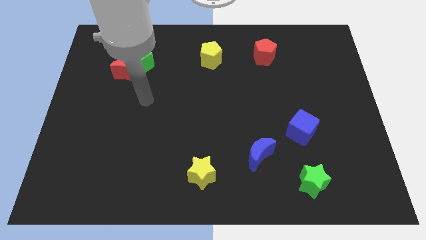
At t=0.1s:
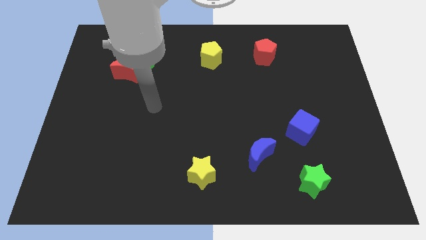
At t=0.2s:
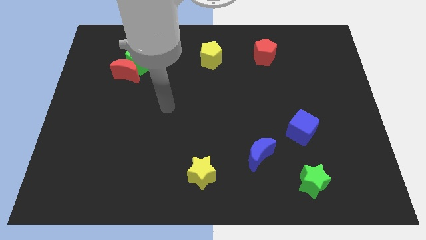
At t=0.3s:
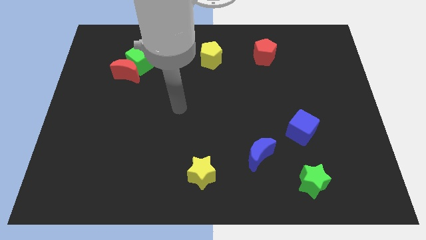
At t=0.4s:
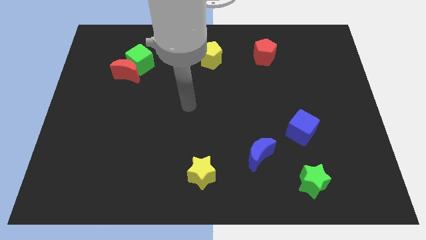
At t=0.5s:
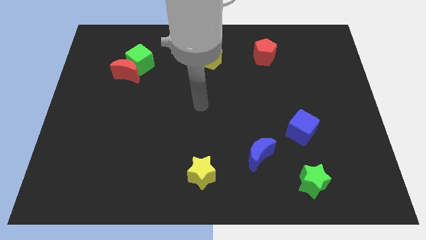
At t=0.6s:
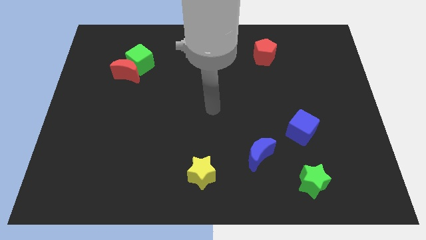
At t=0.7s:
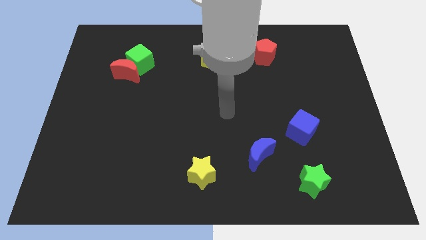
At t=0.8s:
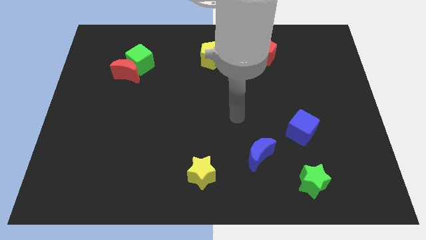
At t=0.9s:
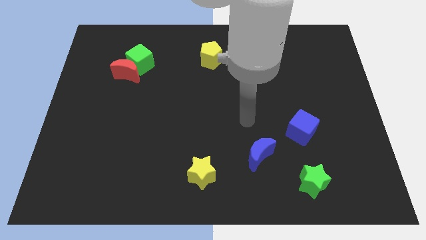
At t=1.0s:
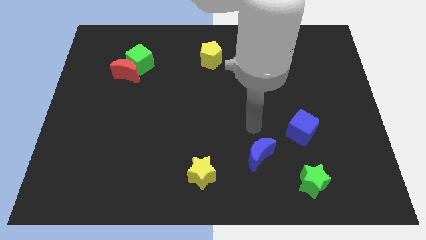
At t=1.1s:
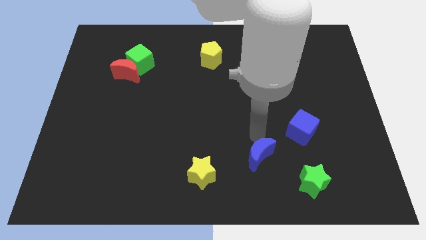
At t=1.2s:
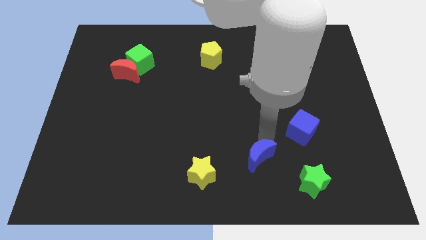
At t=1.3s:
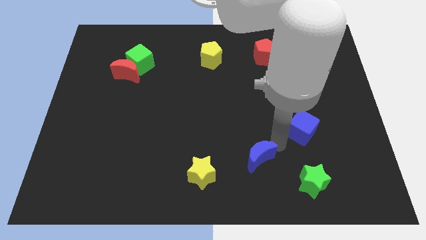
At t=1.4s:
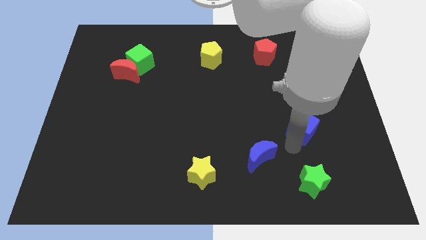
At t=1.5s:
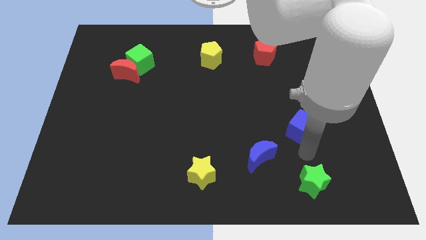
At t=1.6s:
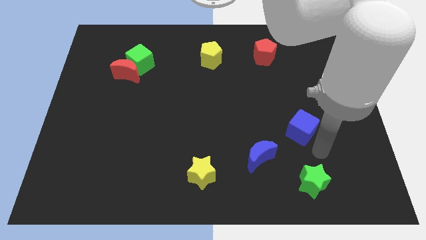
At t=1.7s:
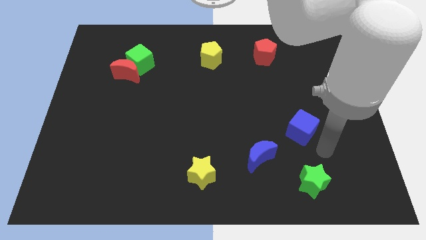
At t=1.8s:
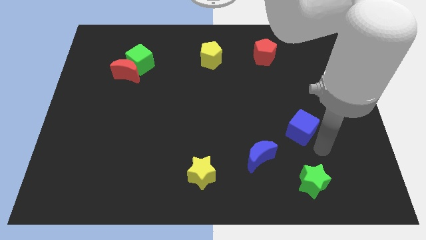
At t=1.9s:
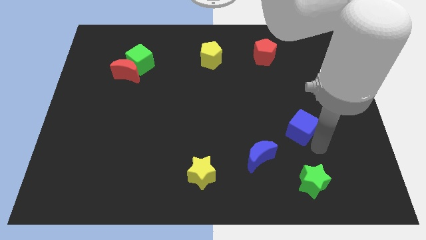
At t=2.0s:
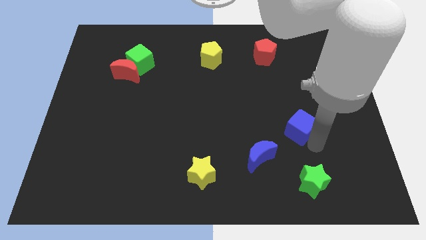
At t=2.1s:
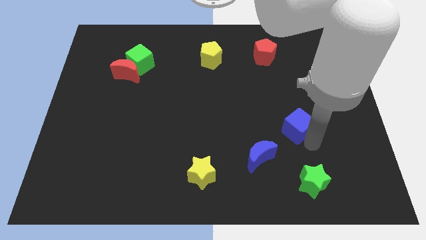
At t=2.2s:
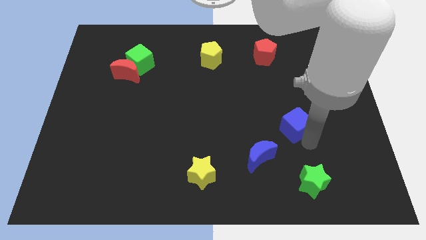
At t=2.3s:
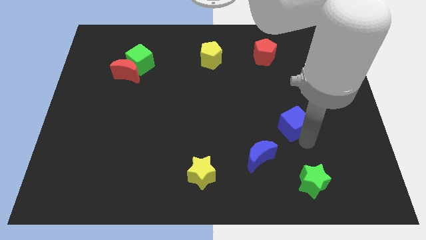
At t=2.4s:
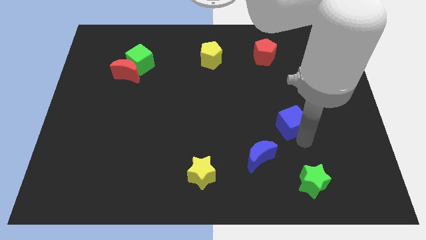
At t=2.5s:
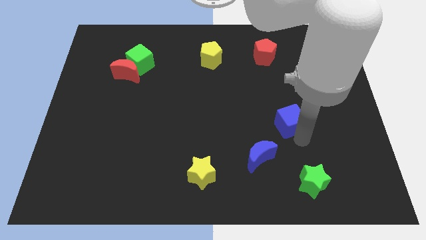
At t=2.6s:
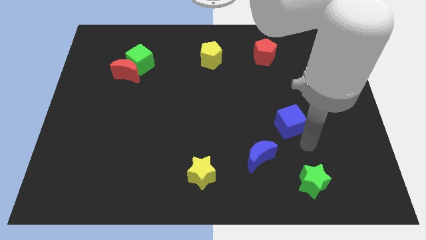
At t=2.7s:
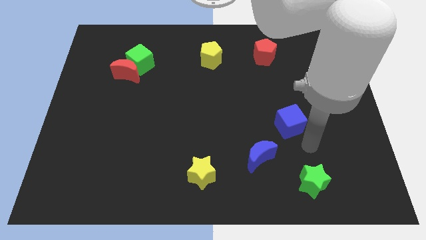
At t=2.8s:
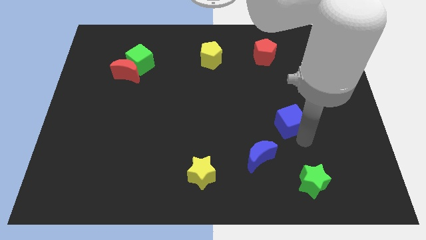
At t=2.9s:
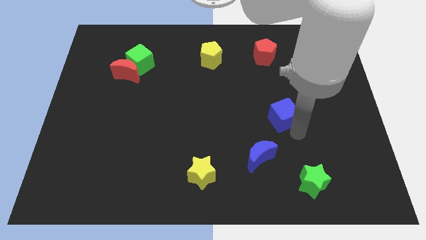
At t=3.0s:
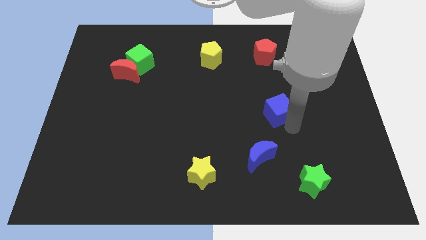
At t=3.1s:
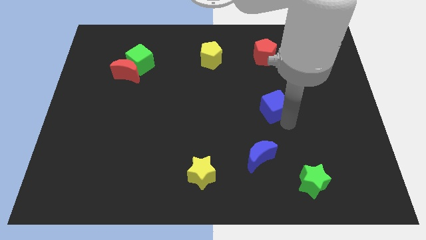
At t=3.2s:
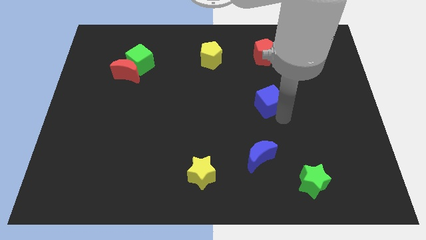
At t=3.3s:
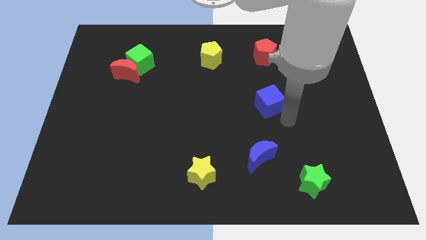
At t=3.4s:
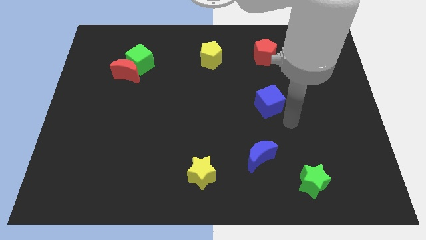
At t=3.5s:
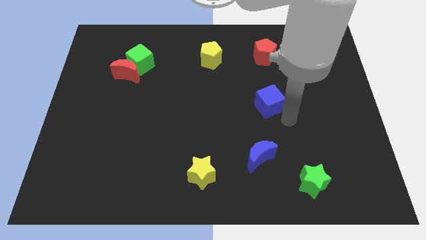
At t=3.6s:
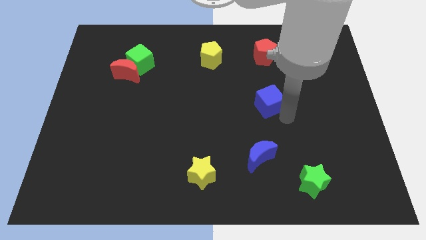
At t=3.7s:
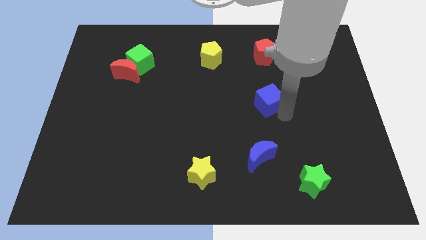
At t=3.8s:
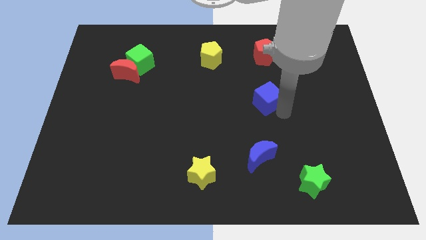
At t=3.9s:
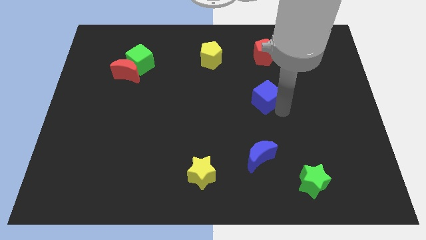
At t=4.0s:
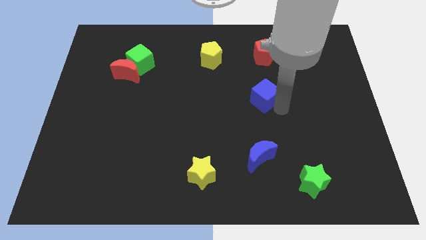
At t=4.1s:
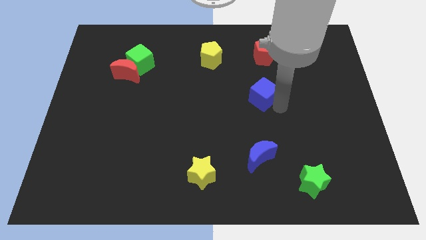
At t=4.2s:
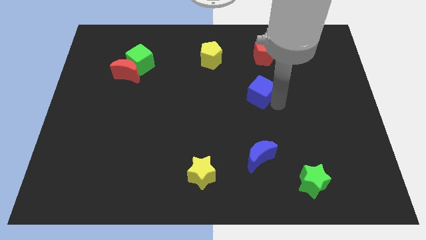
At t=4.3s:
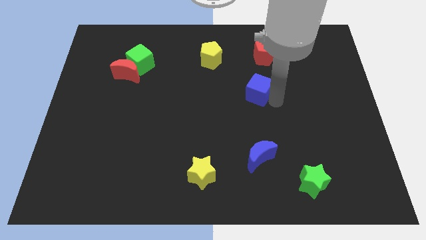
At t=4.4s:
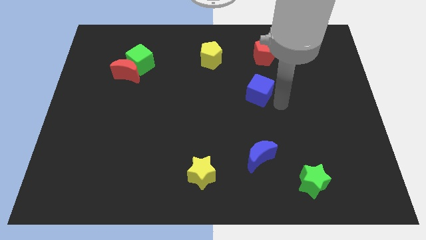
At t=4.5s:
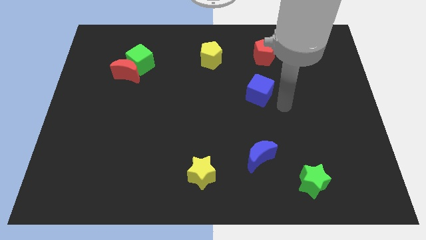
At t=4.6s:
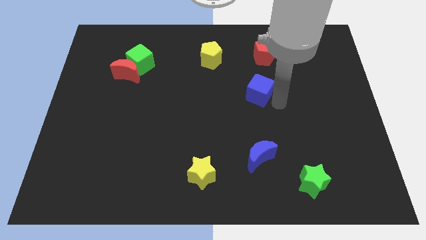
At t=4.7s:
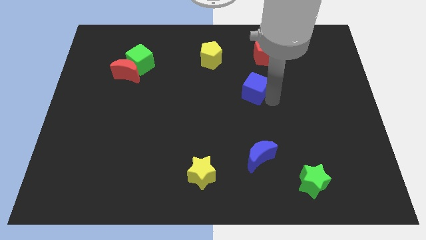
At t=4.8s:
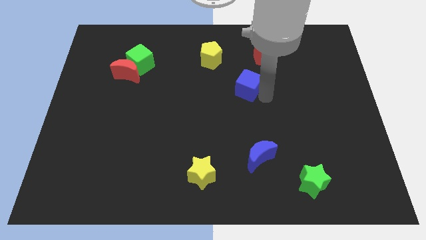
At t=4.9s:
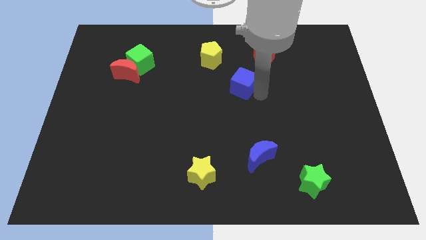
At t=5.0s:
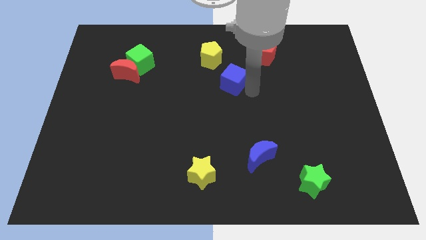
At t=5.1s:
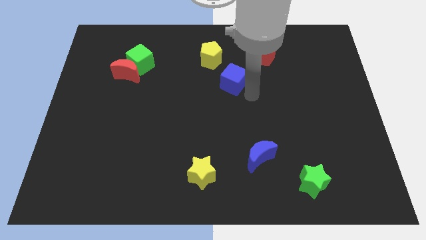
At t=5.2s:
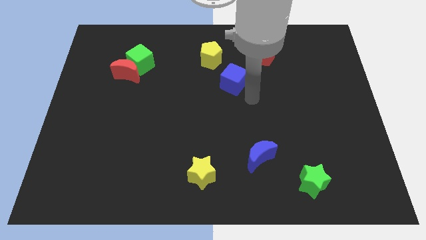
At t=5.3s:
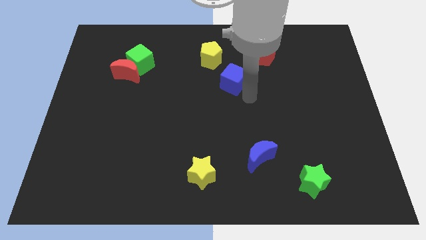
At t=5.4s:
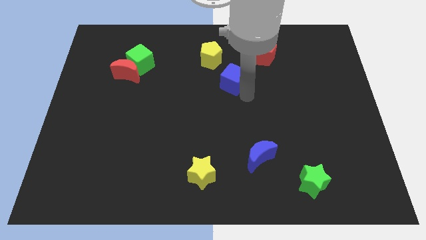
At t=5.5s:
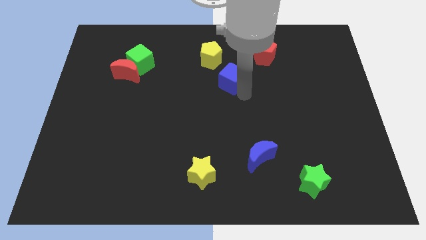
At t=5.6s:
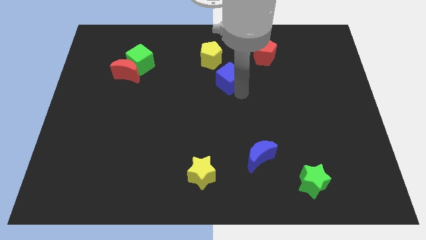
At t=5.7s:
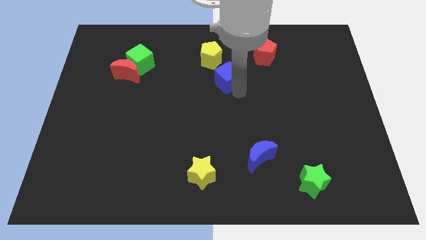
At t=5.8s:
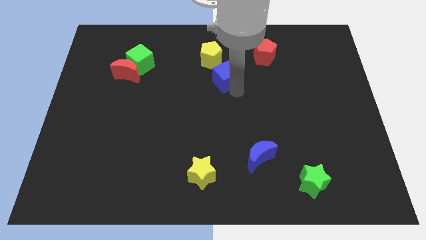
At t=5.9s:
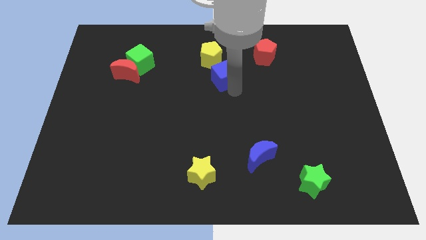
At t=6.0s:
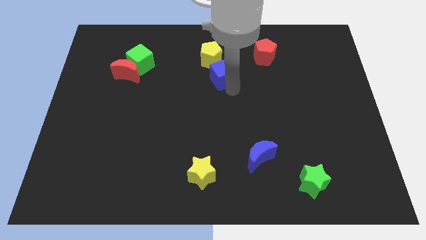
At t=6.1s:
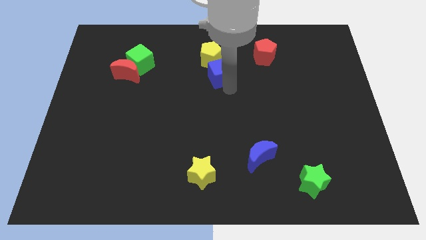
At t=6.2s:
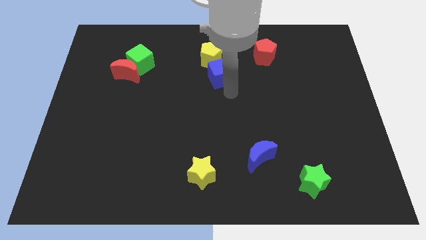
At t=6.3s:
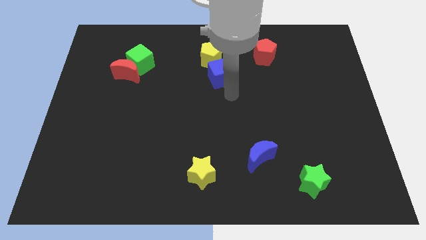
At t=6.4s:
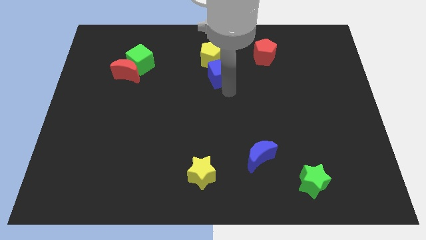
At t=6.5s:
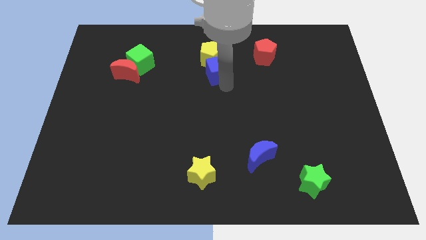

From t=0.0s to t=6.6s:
push the blue cube close to the yellow pentagon
